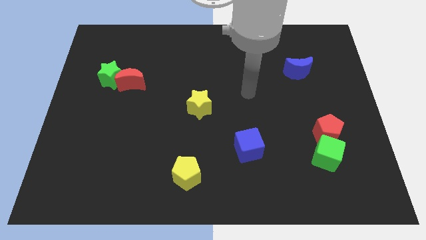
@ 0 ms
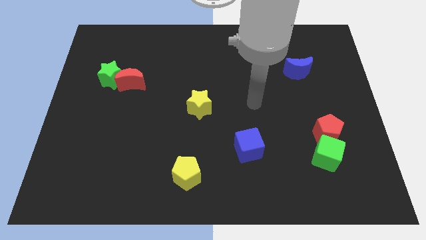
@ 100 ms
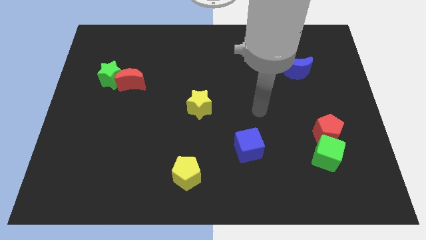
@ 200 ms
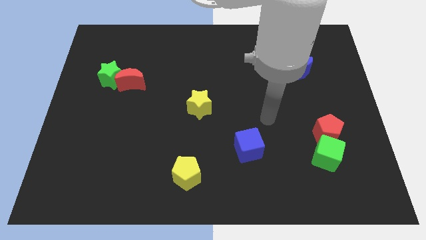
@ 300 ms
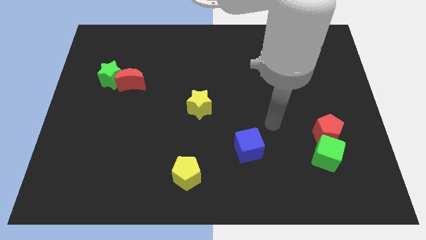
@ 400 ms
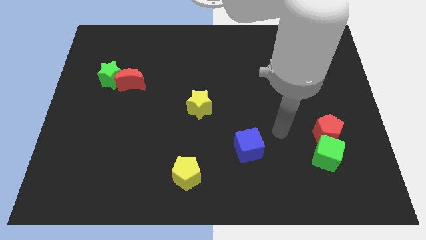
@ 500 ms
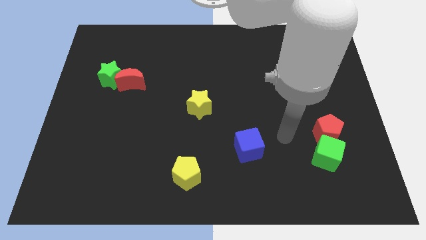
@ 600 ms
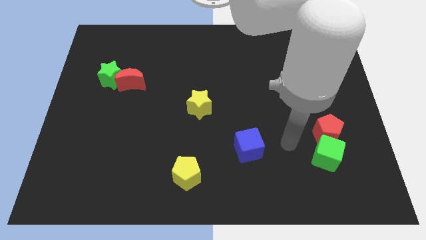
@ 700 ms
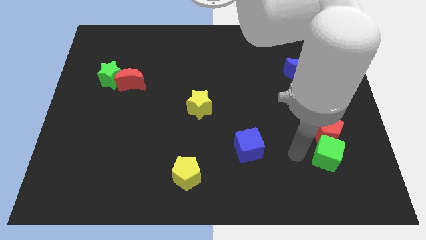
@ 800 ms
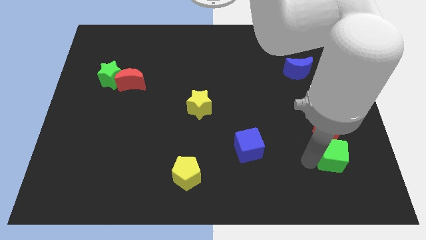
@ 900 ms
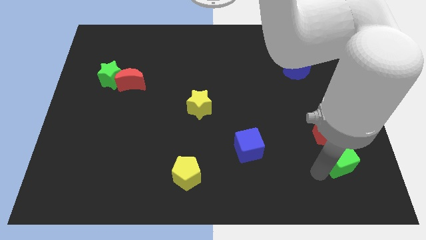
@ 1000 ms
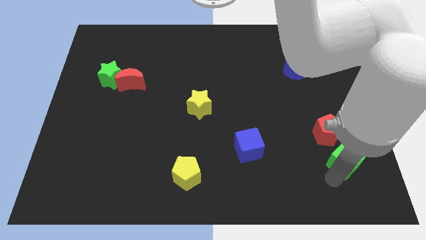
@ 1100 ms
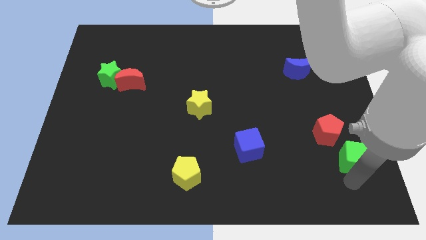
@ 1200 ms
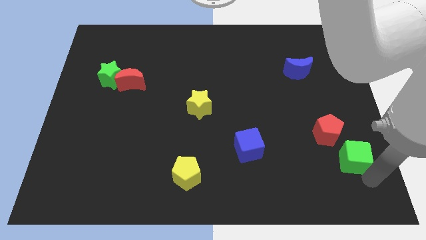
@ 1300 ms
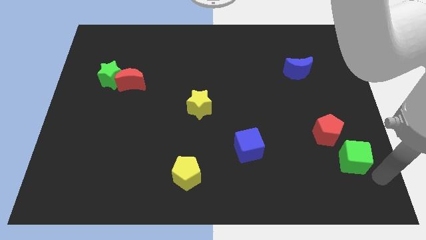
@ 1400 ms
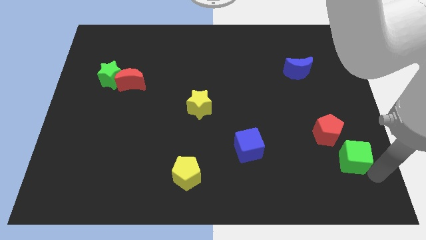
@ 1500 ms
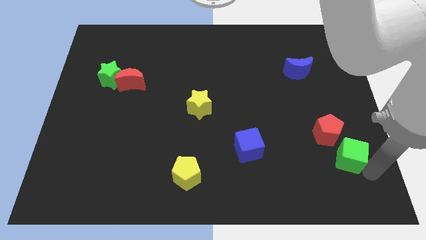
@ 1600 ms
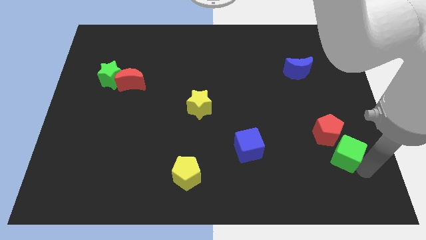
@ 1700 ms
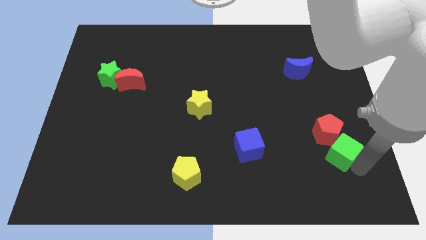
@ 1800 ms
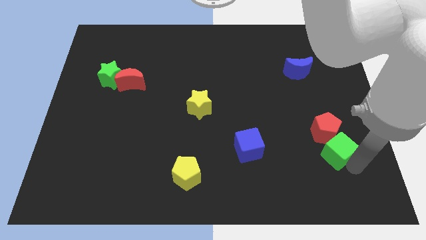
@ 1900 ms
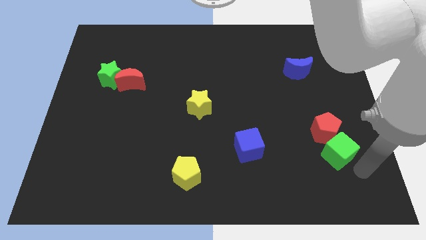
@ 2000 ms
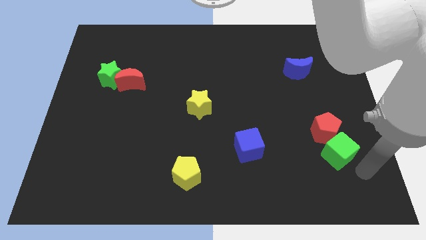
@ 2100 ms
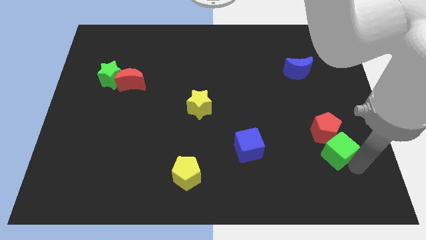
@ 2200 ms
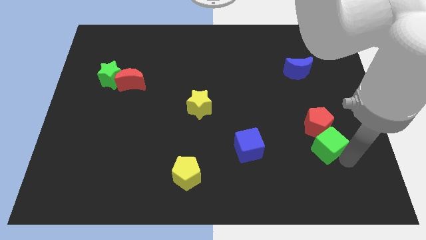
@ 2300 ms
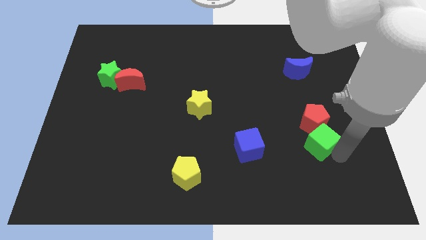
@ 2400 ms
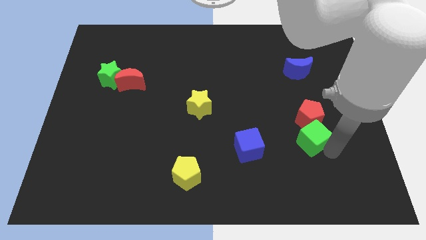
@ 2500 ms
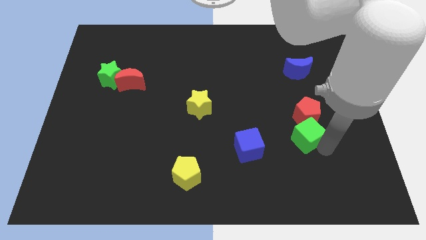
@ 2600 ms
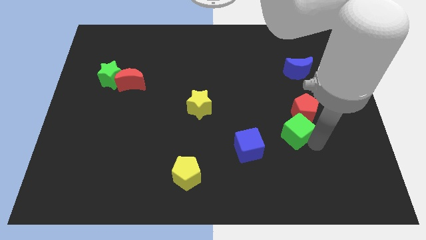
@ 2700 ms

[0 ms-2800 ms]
move the green cube a bit diagonally upwards and to the left

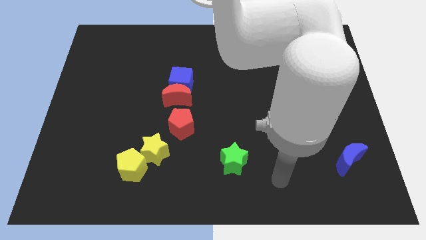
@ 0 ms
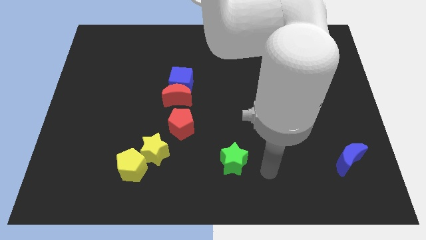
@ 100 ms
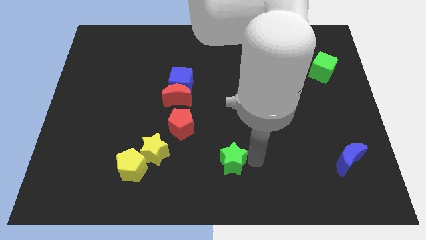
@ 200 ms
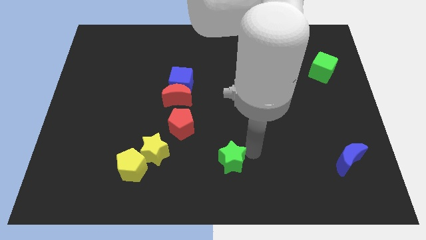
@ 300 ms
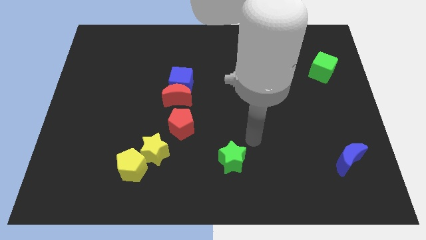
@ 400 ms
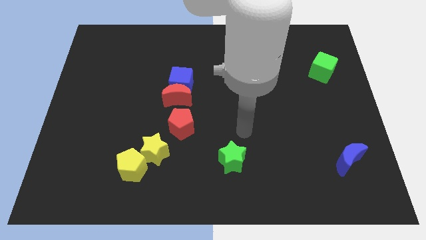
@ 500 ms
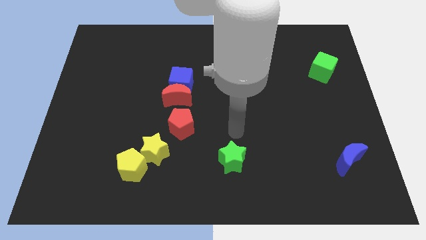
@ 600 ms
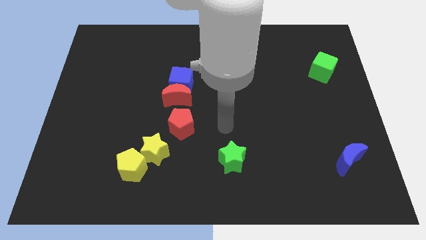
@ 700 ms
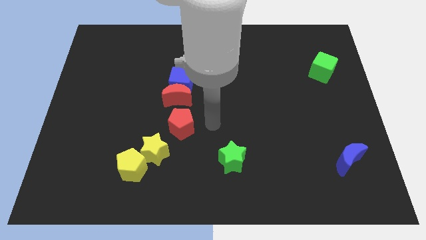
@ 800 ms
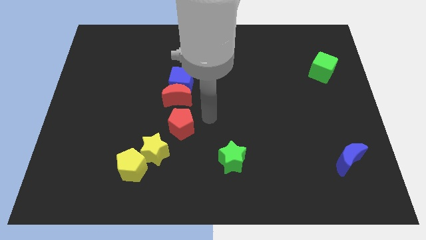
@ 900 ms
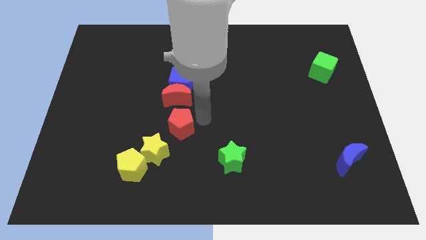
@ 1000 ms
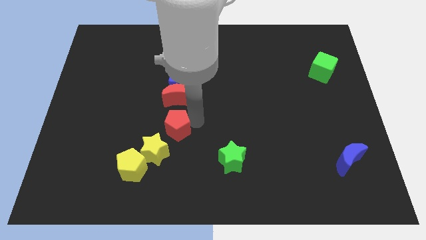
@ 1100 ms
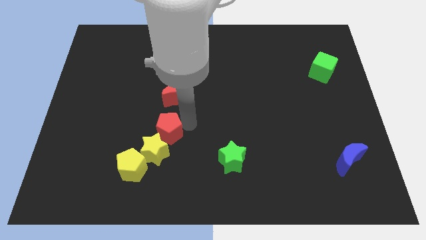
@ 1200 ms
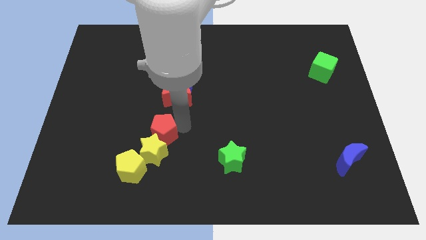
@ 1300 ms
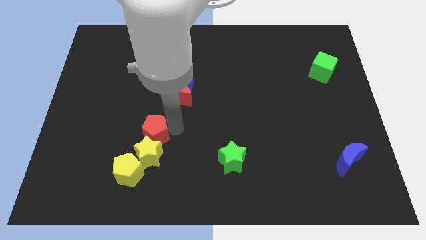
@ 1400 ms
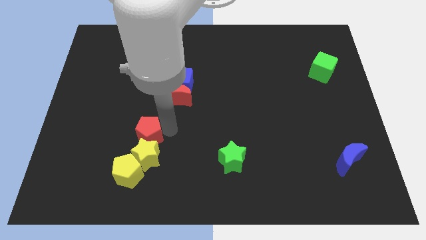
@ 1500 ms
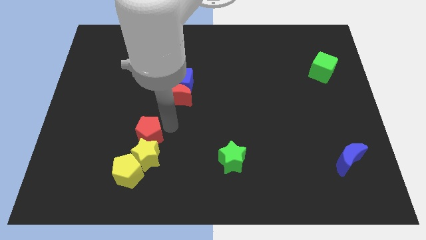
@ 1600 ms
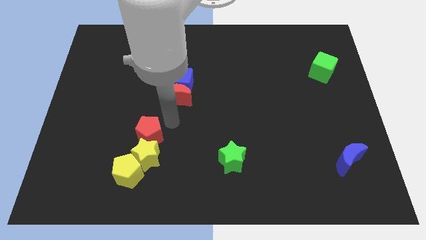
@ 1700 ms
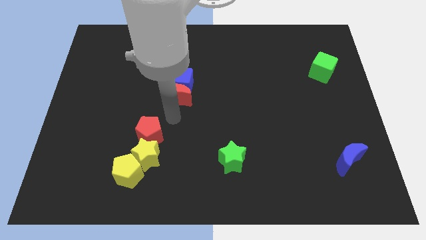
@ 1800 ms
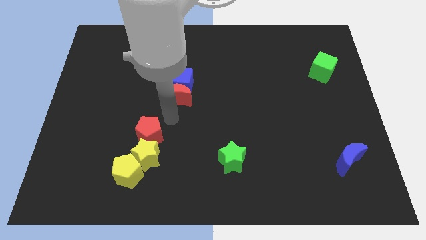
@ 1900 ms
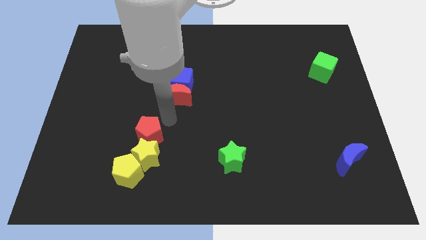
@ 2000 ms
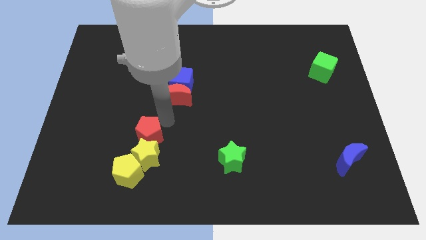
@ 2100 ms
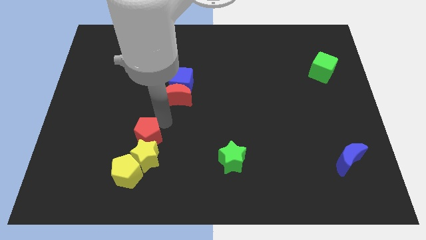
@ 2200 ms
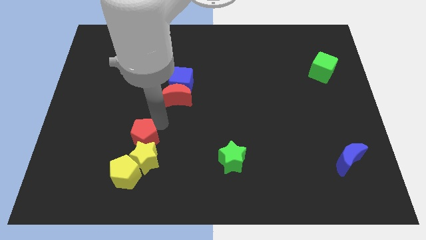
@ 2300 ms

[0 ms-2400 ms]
push the red pentagon slightly diagonally down and to the left

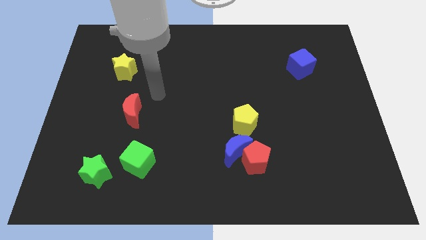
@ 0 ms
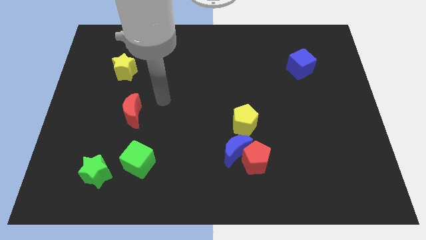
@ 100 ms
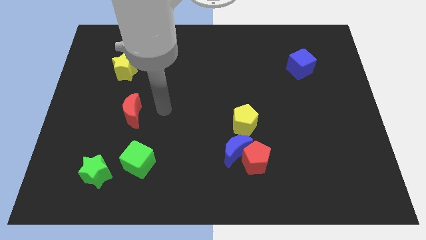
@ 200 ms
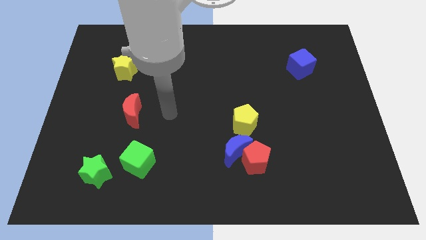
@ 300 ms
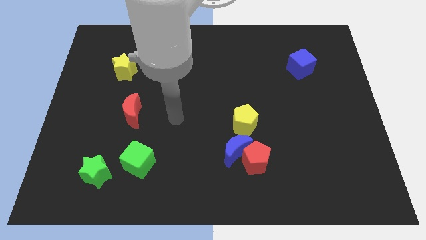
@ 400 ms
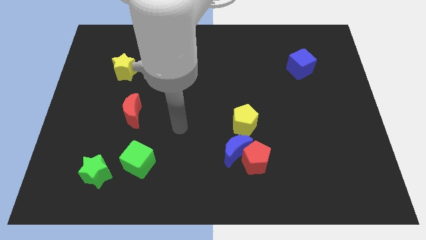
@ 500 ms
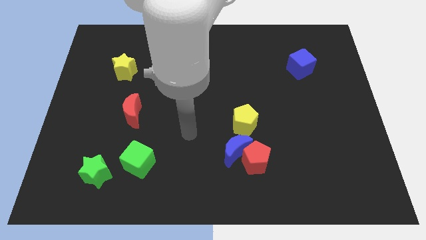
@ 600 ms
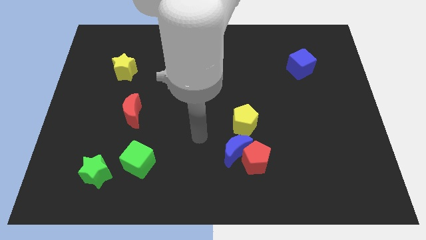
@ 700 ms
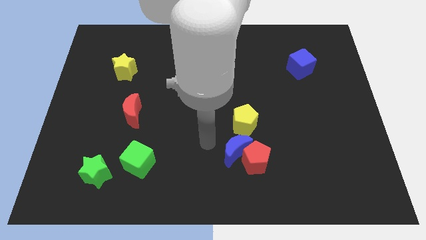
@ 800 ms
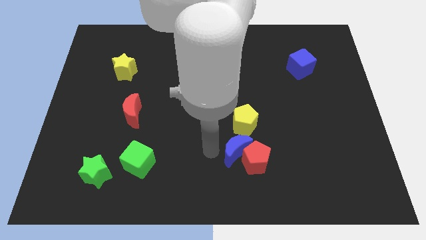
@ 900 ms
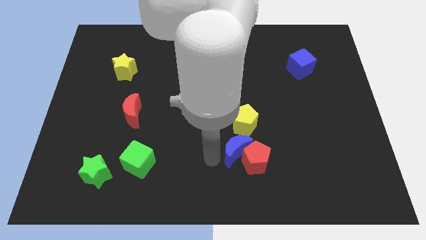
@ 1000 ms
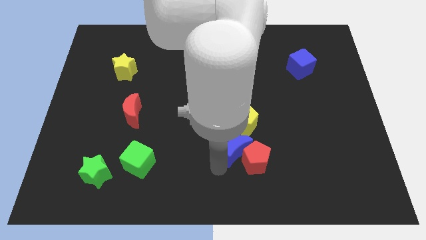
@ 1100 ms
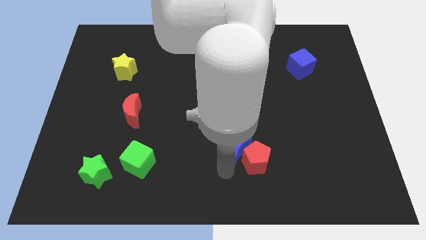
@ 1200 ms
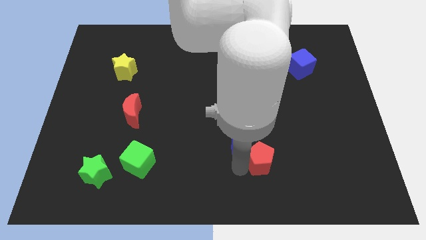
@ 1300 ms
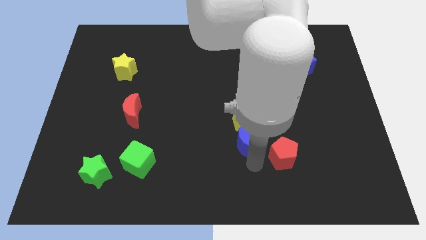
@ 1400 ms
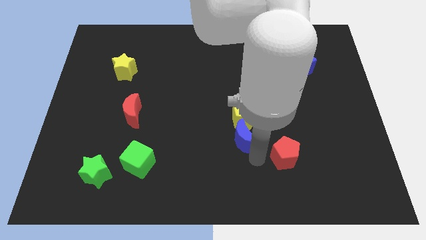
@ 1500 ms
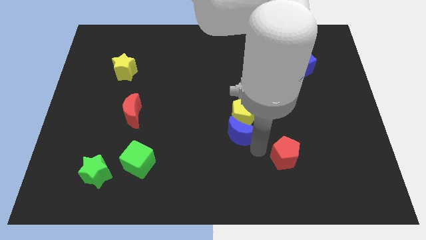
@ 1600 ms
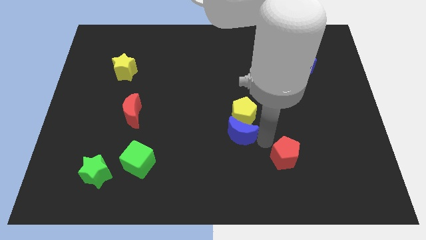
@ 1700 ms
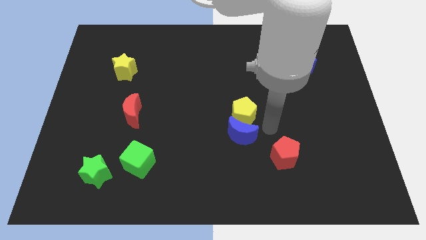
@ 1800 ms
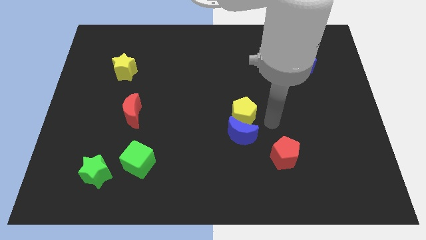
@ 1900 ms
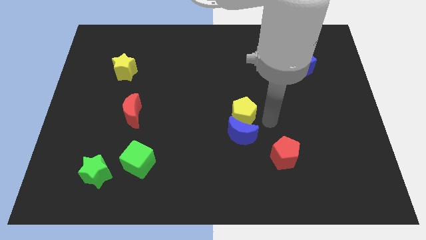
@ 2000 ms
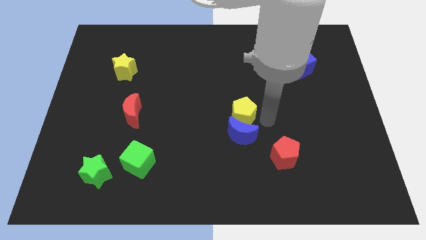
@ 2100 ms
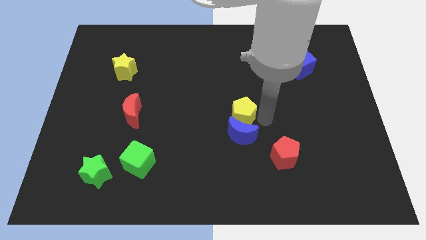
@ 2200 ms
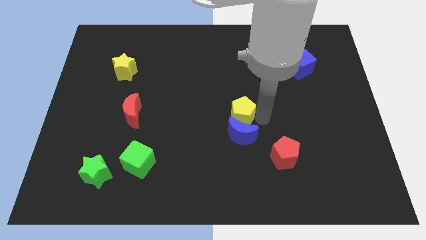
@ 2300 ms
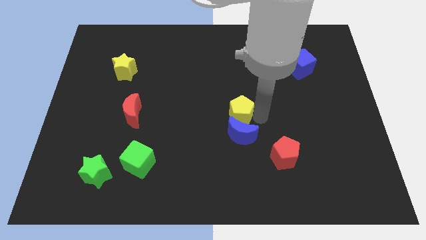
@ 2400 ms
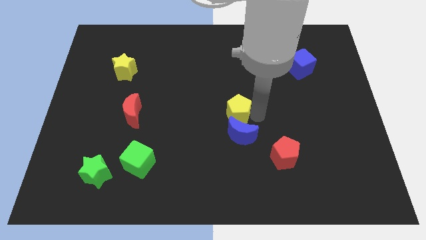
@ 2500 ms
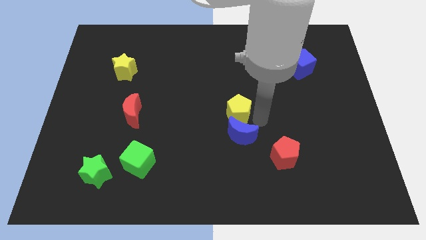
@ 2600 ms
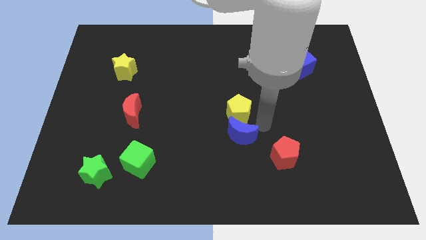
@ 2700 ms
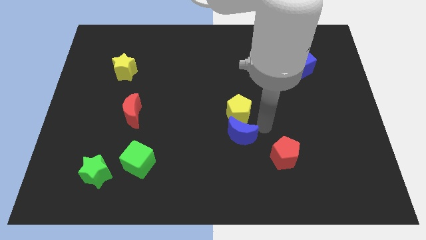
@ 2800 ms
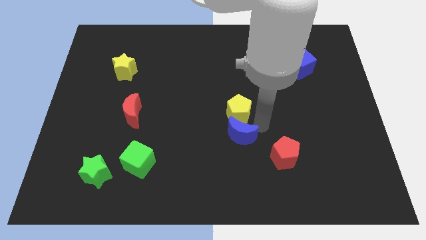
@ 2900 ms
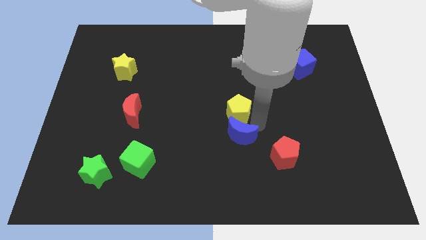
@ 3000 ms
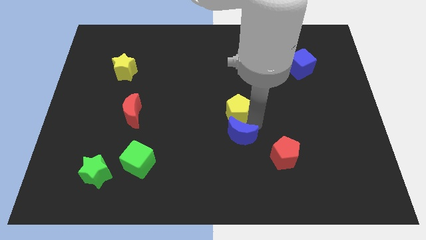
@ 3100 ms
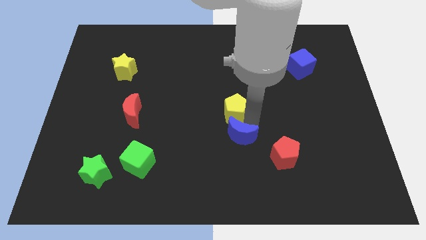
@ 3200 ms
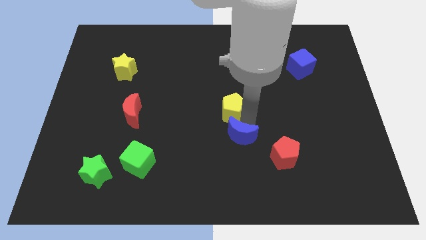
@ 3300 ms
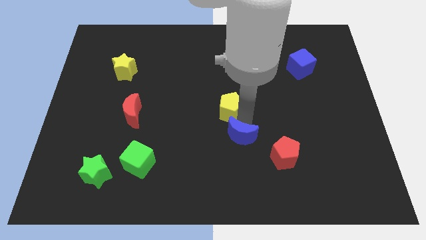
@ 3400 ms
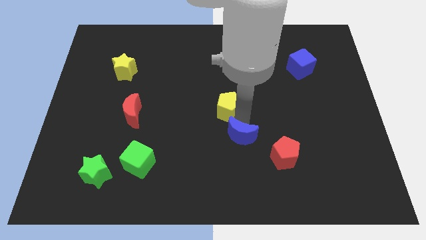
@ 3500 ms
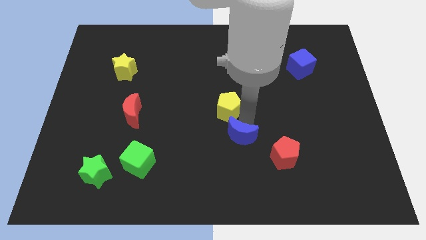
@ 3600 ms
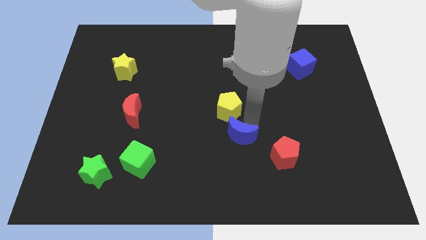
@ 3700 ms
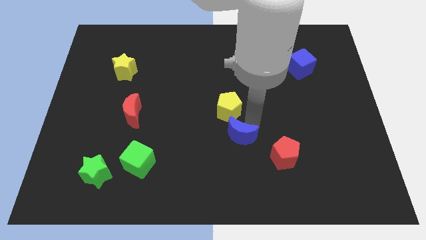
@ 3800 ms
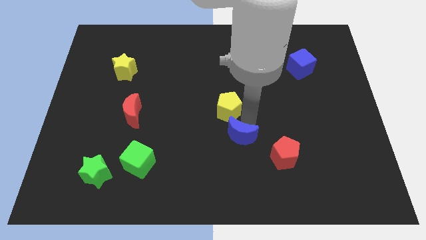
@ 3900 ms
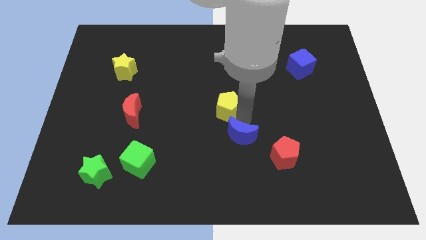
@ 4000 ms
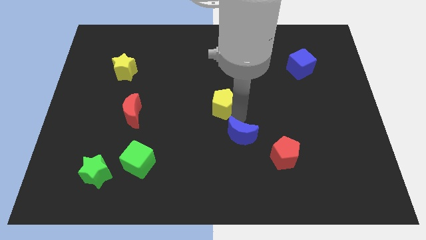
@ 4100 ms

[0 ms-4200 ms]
move the yellow pentagon upwards and then left a little bit
